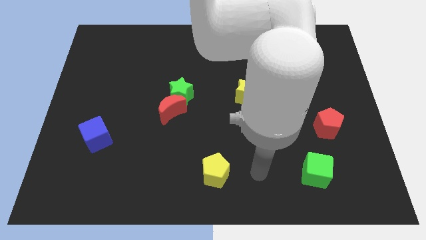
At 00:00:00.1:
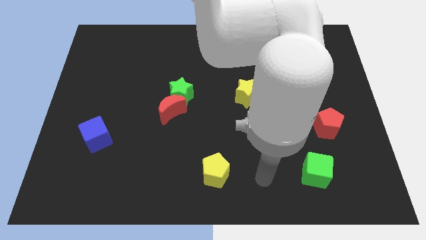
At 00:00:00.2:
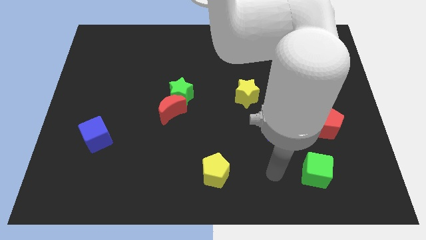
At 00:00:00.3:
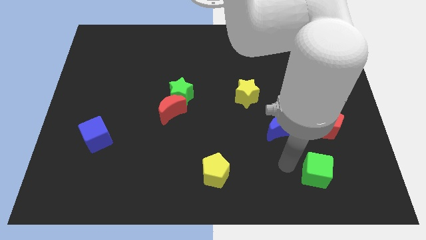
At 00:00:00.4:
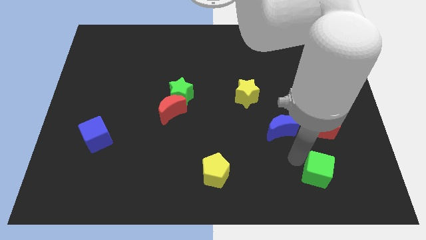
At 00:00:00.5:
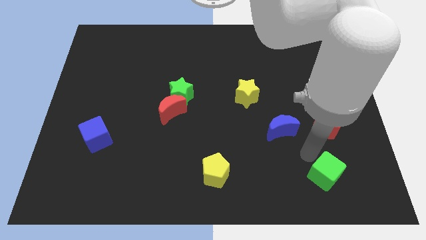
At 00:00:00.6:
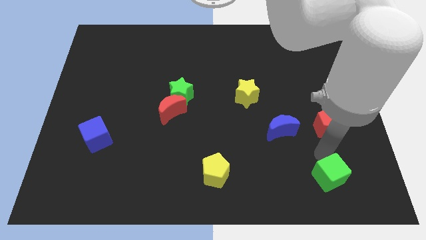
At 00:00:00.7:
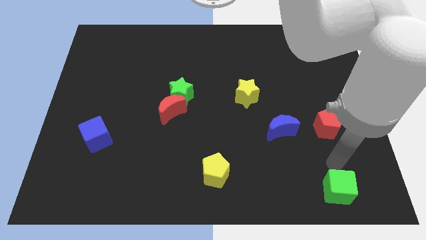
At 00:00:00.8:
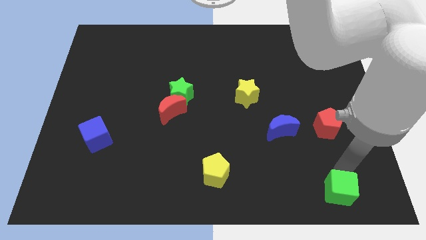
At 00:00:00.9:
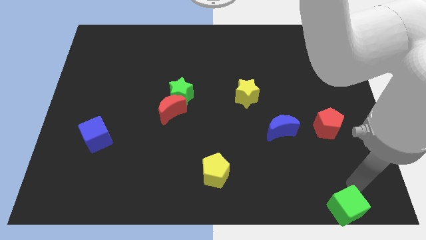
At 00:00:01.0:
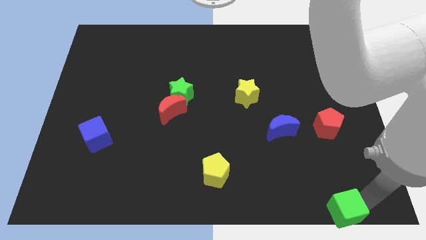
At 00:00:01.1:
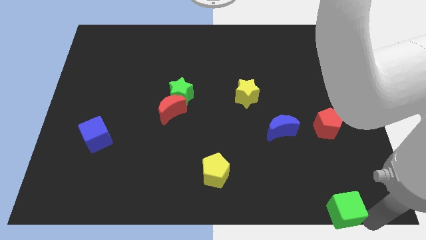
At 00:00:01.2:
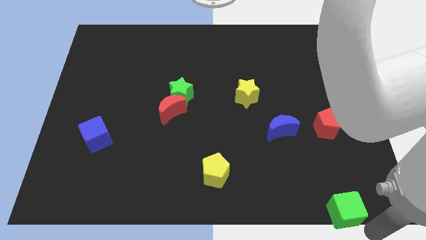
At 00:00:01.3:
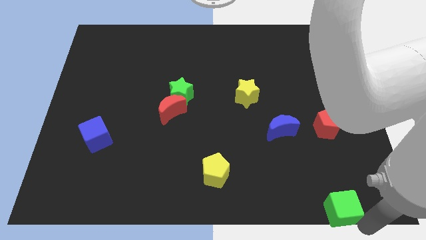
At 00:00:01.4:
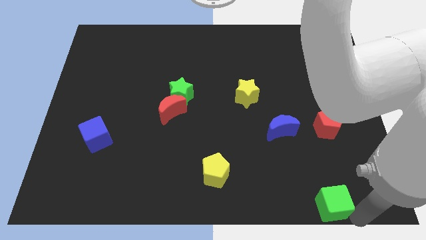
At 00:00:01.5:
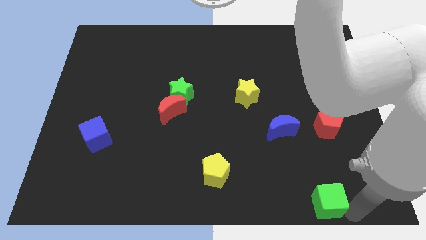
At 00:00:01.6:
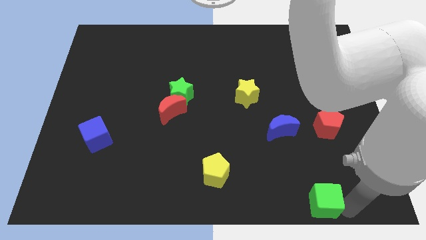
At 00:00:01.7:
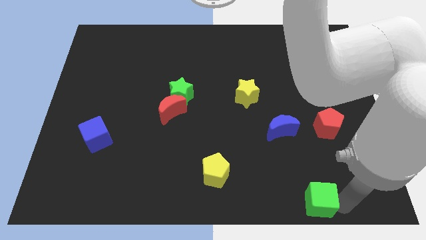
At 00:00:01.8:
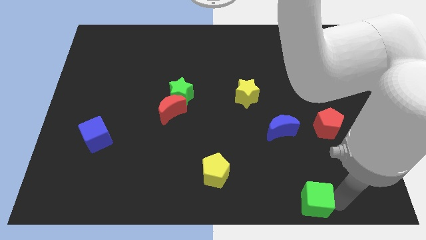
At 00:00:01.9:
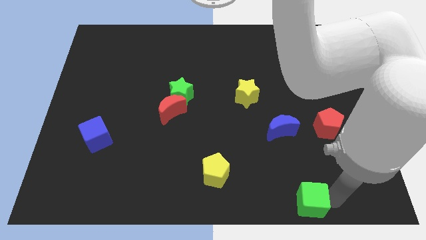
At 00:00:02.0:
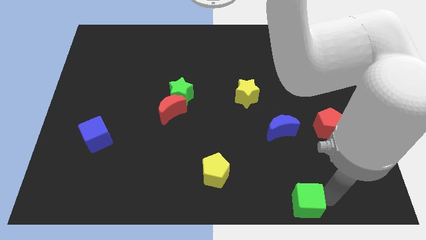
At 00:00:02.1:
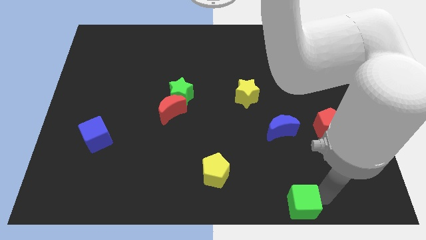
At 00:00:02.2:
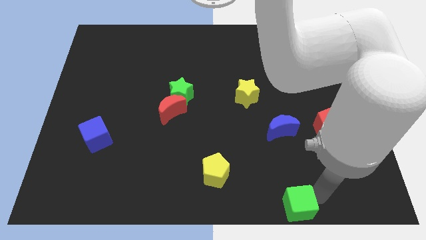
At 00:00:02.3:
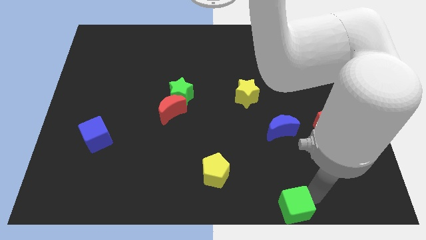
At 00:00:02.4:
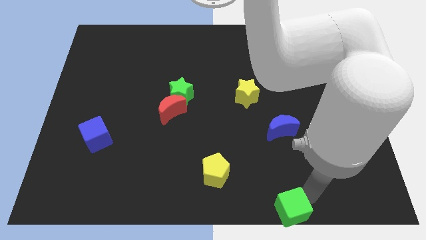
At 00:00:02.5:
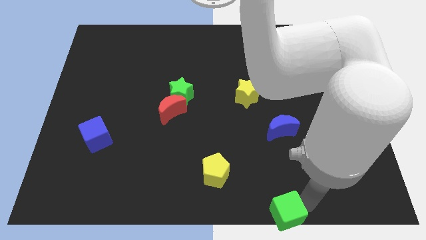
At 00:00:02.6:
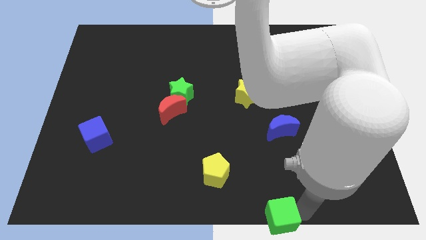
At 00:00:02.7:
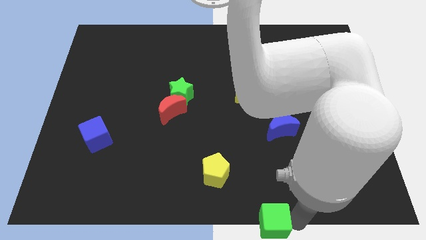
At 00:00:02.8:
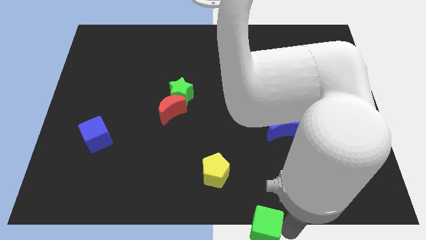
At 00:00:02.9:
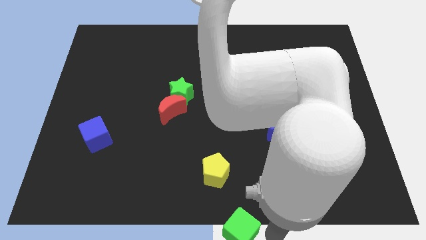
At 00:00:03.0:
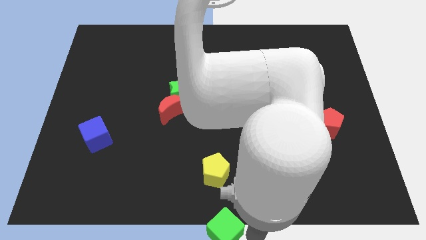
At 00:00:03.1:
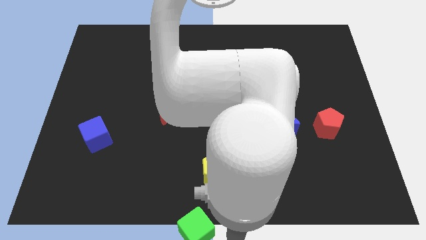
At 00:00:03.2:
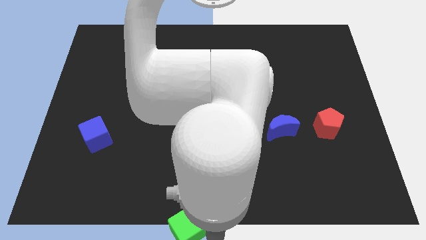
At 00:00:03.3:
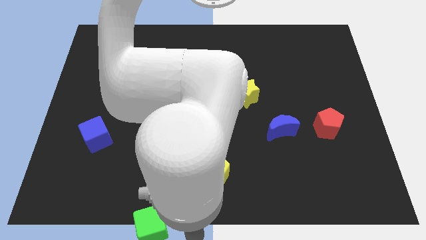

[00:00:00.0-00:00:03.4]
push the green cube to the left

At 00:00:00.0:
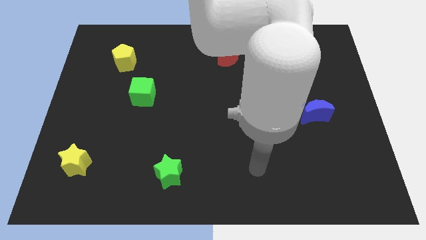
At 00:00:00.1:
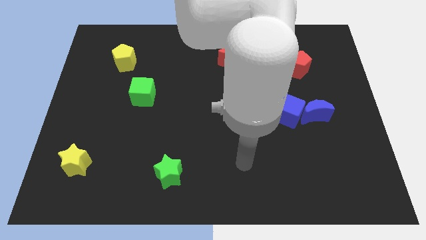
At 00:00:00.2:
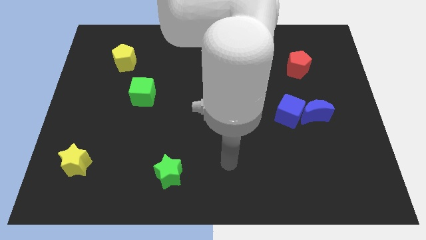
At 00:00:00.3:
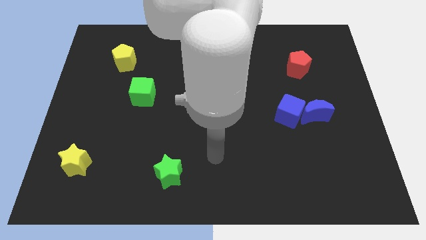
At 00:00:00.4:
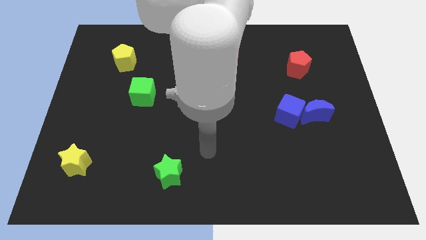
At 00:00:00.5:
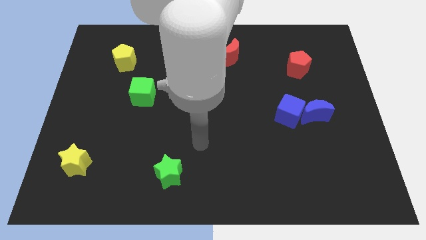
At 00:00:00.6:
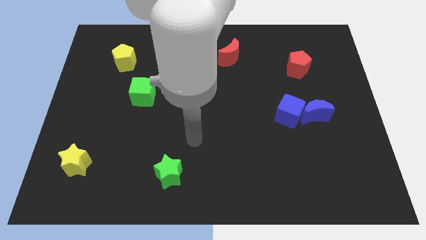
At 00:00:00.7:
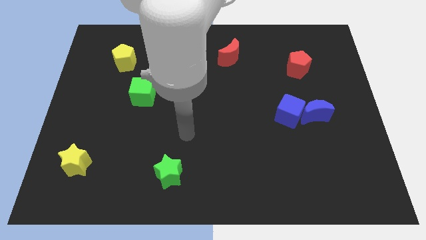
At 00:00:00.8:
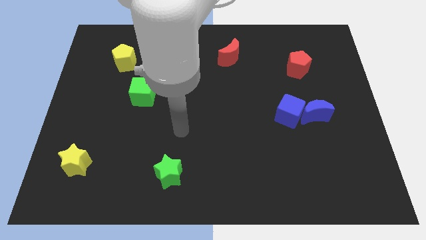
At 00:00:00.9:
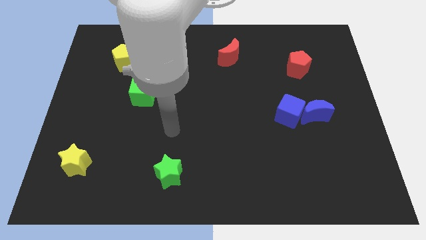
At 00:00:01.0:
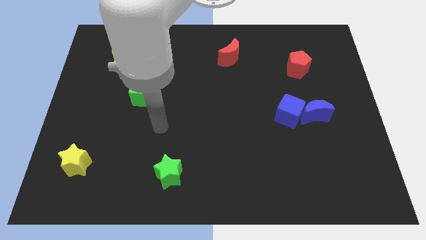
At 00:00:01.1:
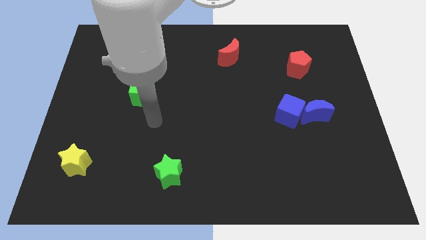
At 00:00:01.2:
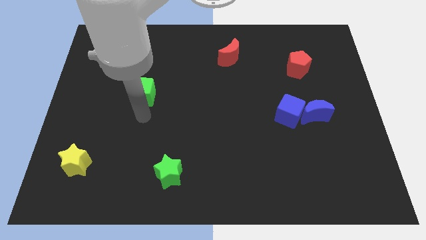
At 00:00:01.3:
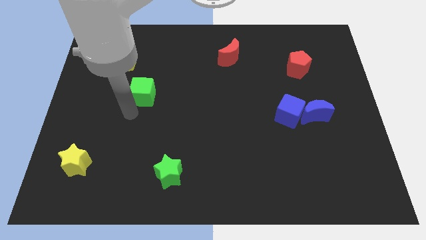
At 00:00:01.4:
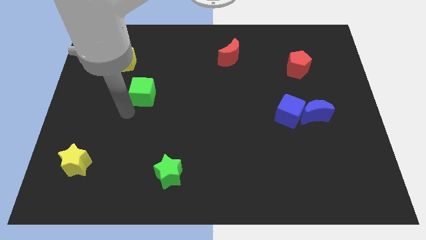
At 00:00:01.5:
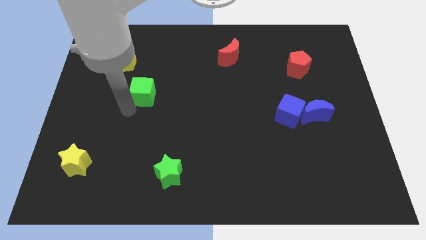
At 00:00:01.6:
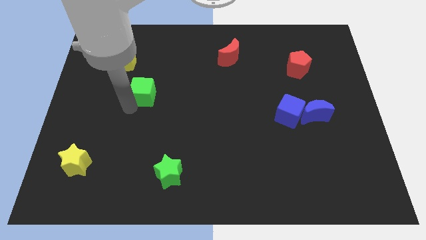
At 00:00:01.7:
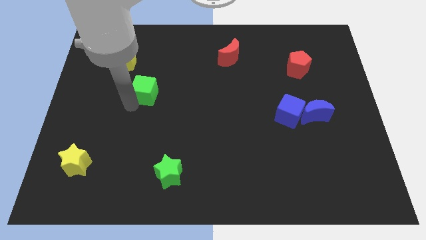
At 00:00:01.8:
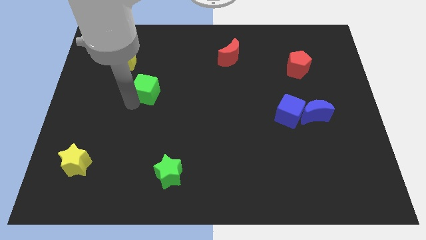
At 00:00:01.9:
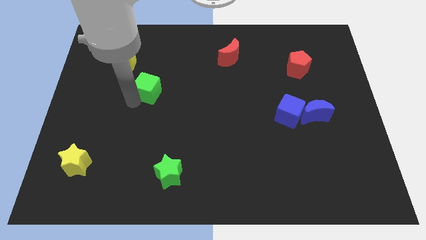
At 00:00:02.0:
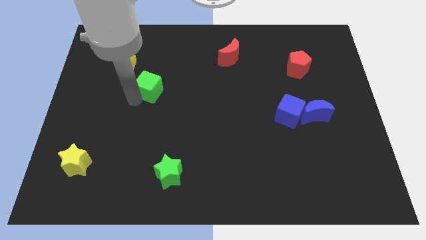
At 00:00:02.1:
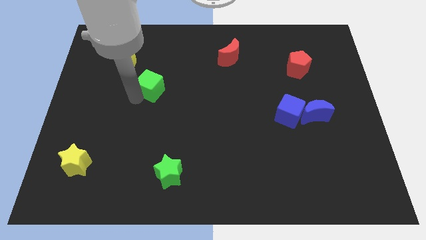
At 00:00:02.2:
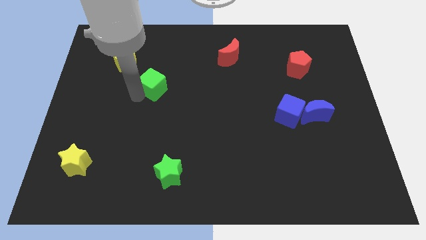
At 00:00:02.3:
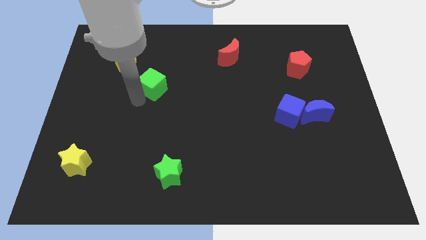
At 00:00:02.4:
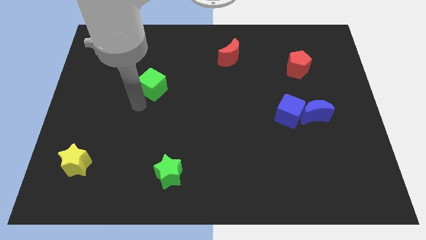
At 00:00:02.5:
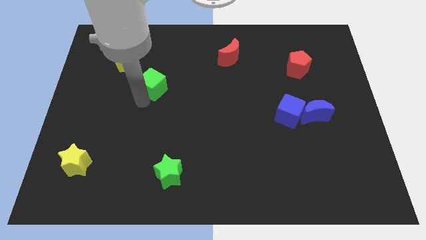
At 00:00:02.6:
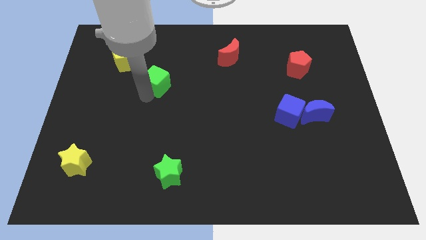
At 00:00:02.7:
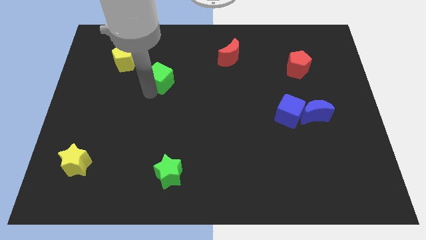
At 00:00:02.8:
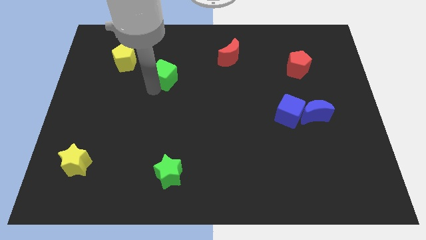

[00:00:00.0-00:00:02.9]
slide the green cube somewhat up and to the right

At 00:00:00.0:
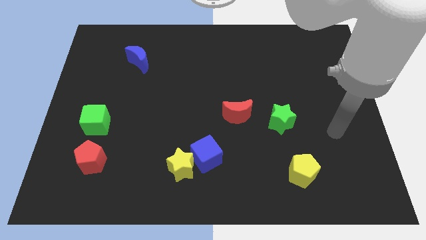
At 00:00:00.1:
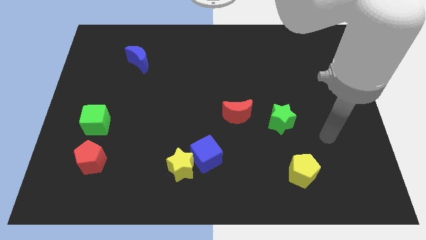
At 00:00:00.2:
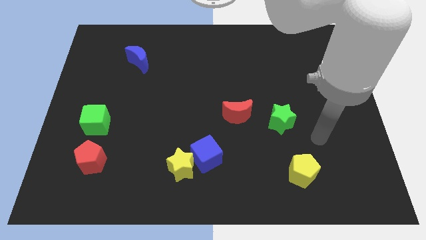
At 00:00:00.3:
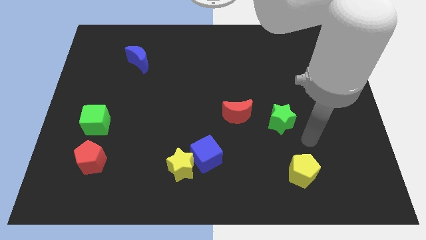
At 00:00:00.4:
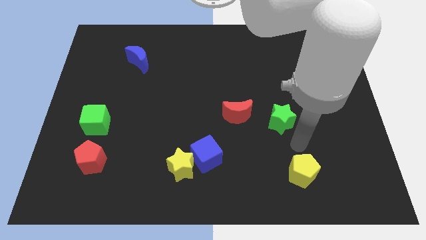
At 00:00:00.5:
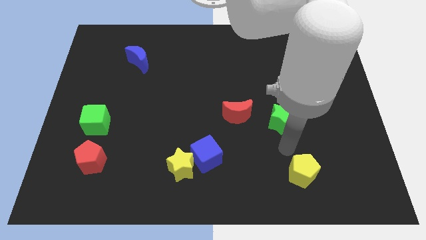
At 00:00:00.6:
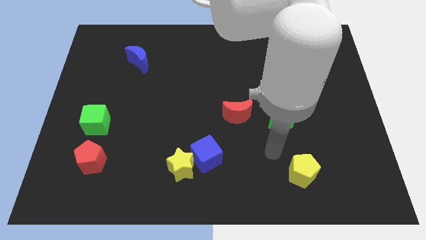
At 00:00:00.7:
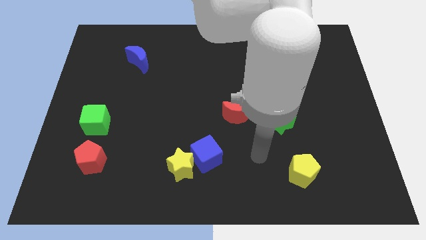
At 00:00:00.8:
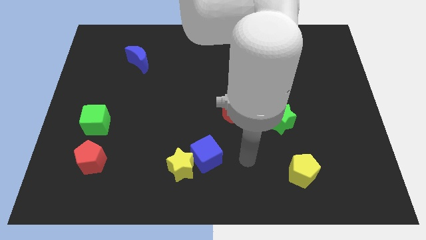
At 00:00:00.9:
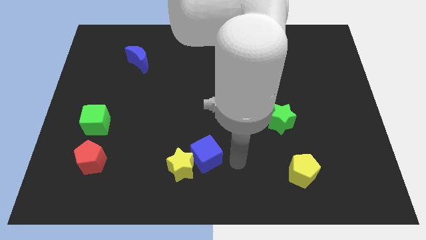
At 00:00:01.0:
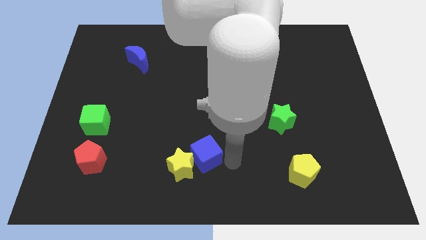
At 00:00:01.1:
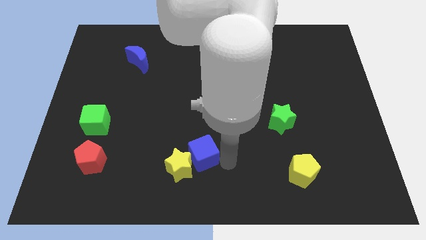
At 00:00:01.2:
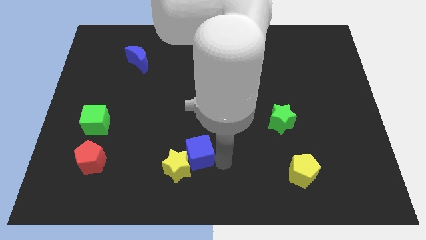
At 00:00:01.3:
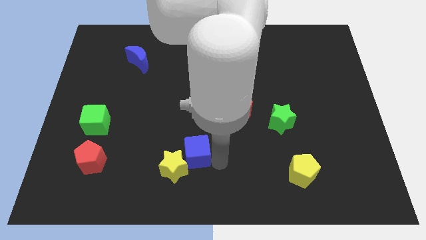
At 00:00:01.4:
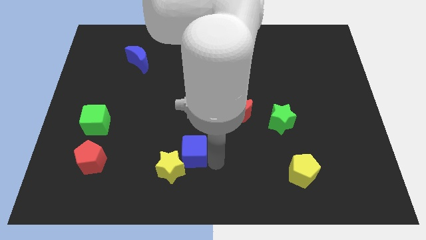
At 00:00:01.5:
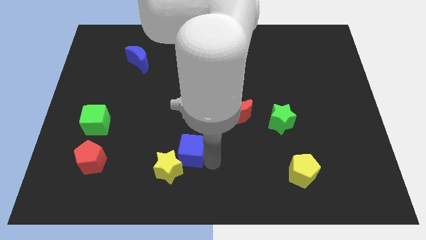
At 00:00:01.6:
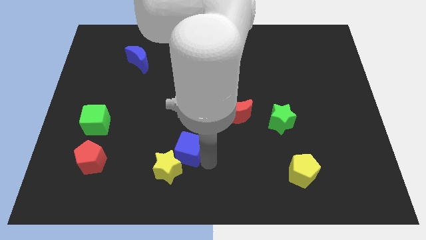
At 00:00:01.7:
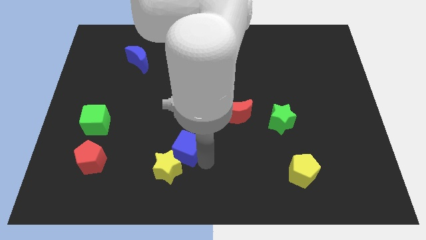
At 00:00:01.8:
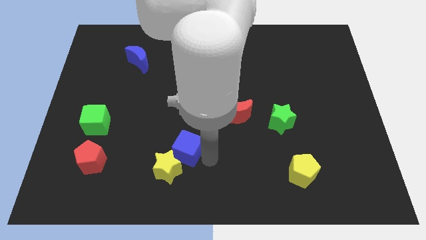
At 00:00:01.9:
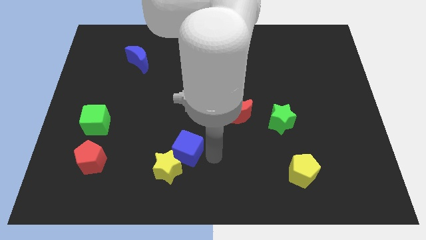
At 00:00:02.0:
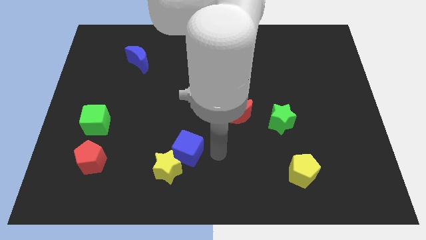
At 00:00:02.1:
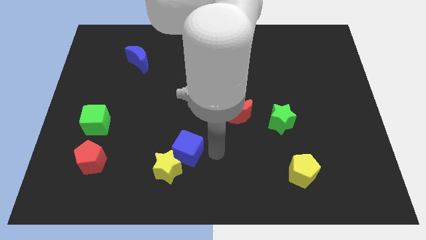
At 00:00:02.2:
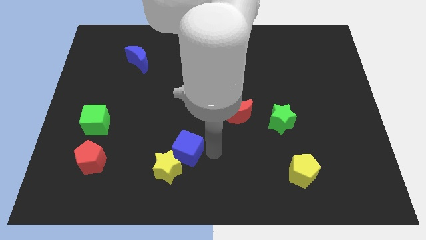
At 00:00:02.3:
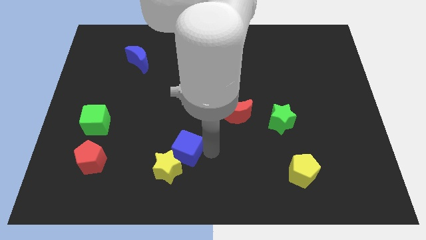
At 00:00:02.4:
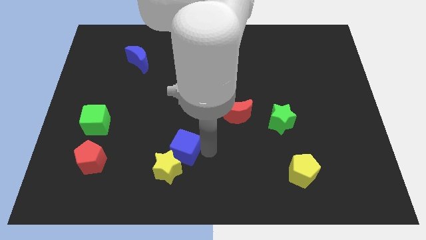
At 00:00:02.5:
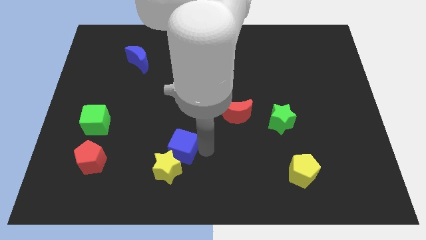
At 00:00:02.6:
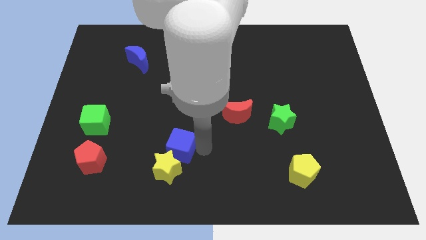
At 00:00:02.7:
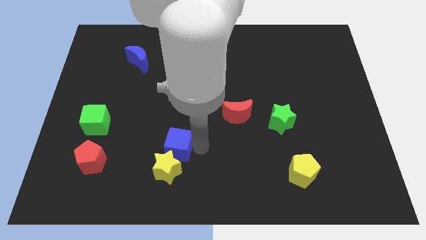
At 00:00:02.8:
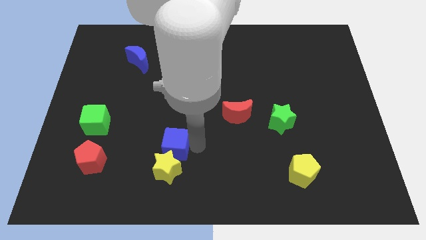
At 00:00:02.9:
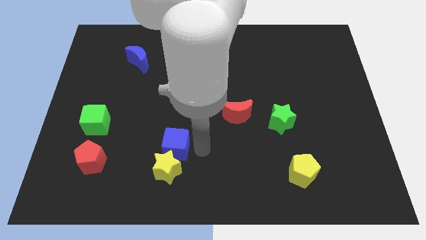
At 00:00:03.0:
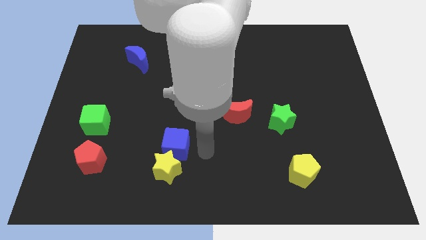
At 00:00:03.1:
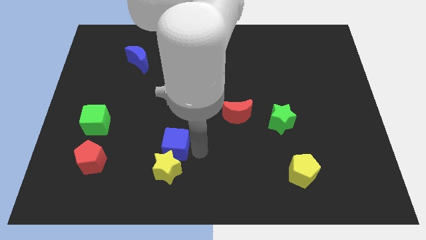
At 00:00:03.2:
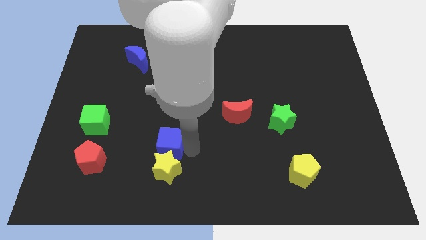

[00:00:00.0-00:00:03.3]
move the blue cube left somewhat
